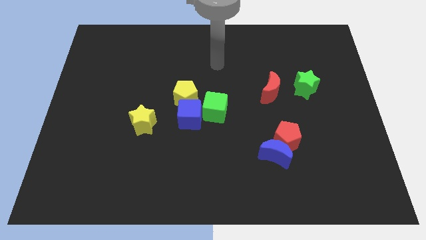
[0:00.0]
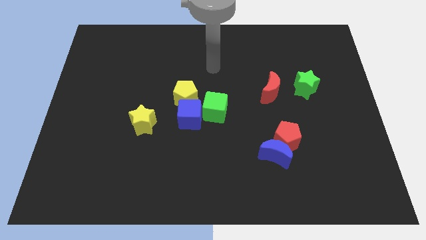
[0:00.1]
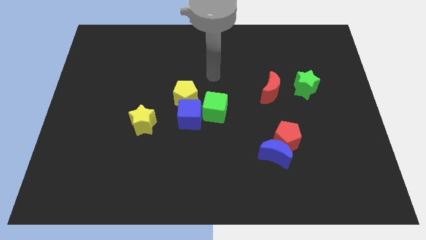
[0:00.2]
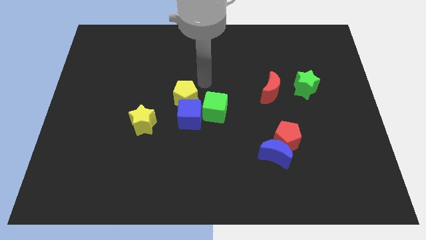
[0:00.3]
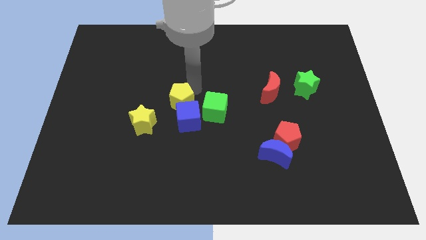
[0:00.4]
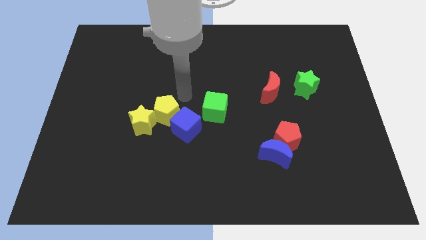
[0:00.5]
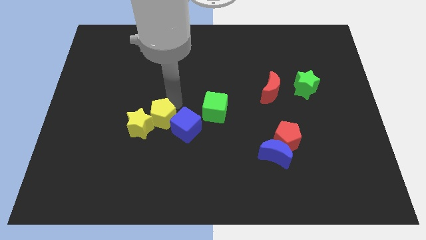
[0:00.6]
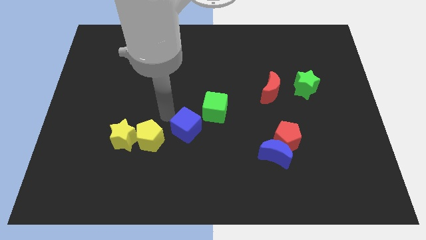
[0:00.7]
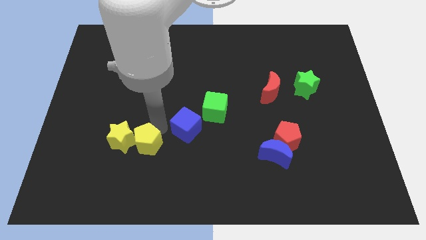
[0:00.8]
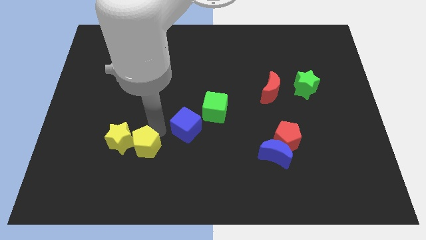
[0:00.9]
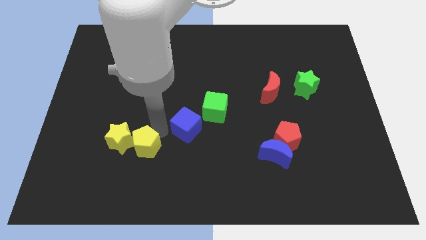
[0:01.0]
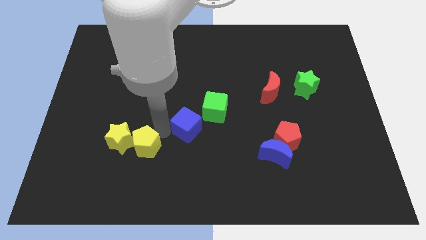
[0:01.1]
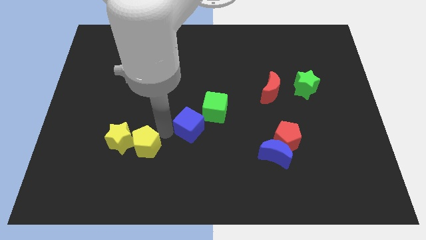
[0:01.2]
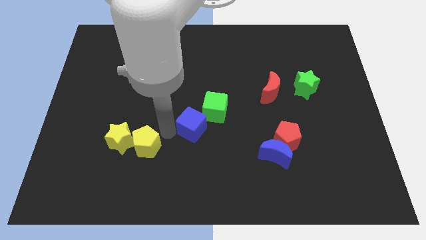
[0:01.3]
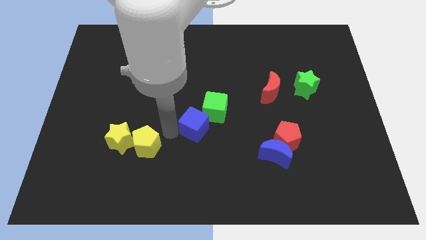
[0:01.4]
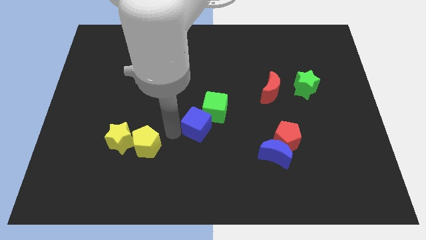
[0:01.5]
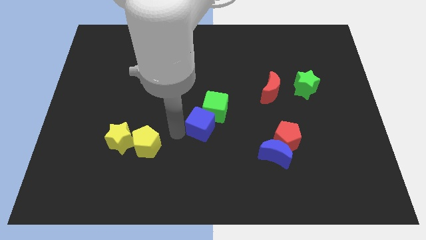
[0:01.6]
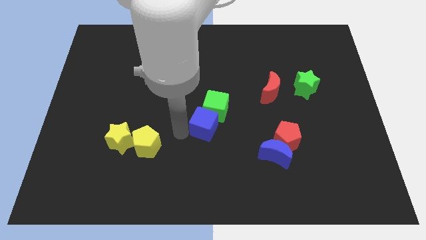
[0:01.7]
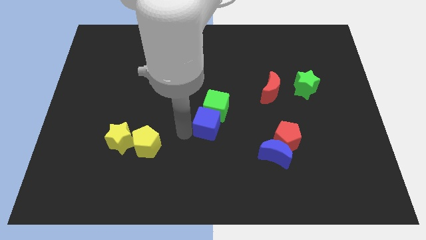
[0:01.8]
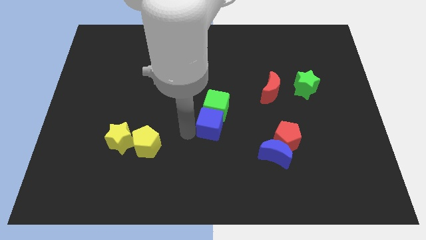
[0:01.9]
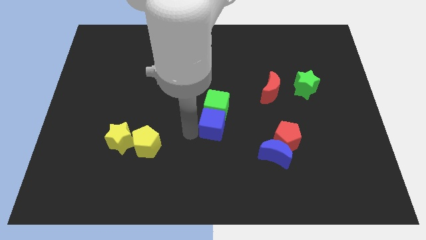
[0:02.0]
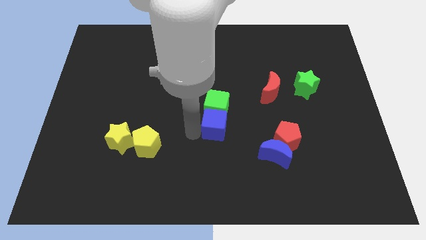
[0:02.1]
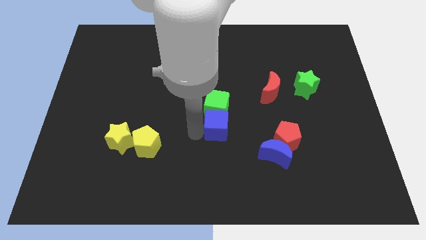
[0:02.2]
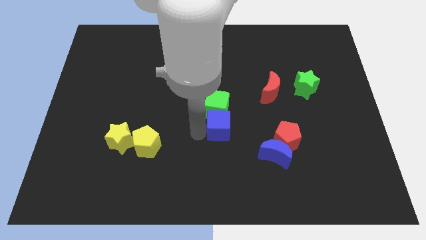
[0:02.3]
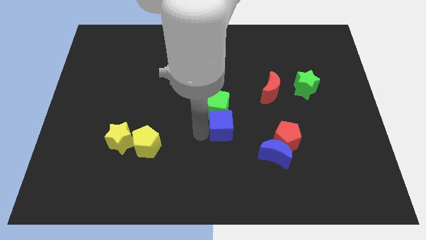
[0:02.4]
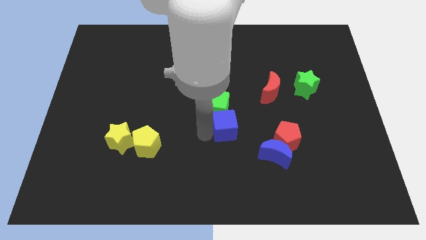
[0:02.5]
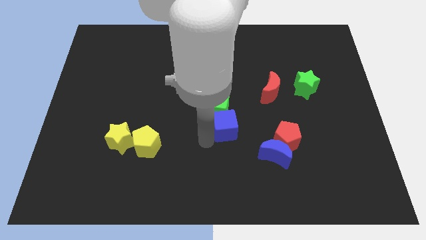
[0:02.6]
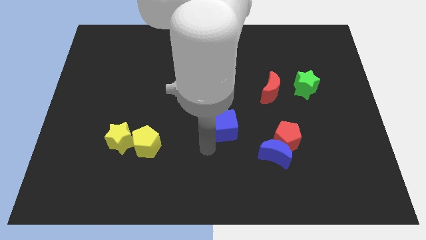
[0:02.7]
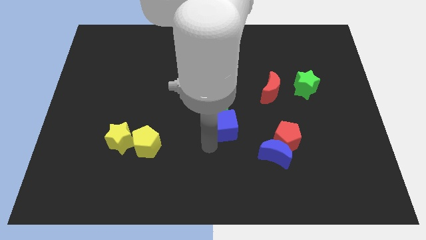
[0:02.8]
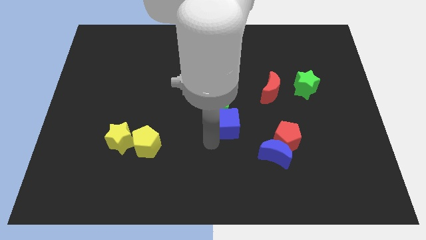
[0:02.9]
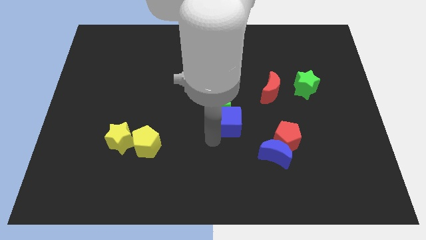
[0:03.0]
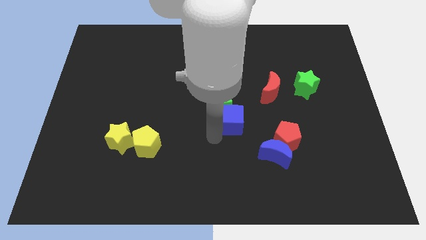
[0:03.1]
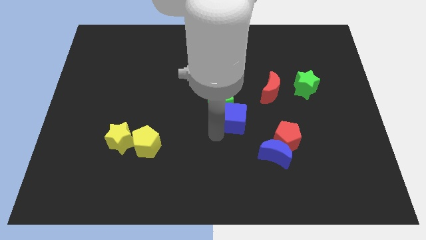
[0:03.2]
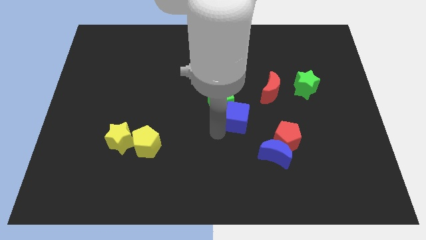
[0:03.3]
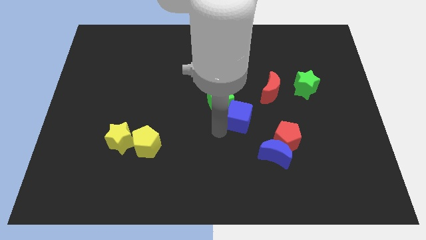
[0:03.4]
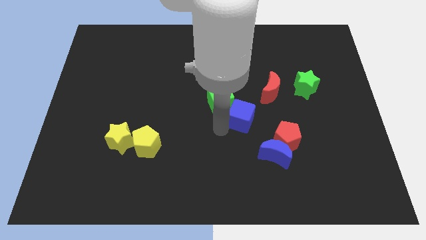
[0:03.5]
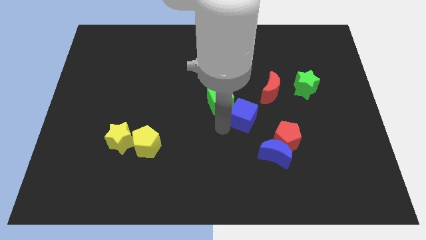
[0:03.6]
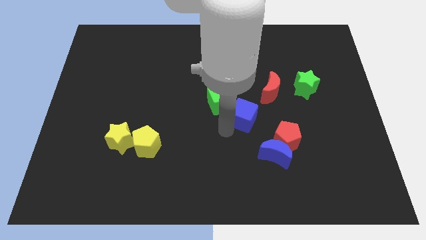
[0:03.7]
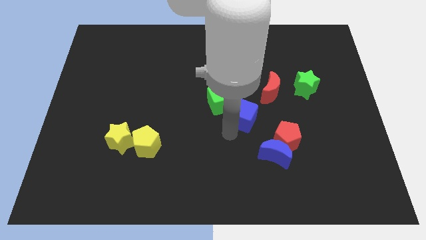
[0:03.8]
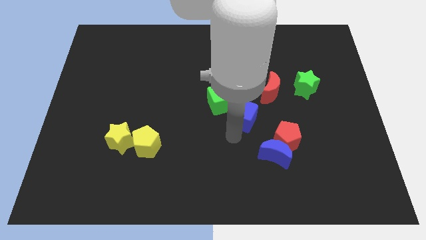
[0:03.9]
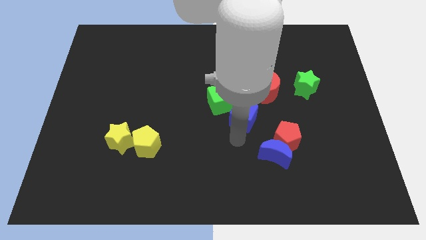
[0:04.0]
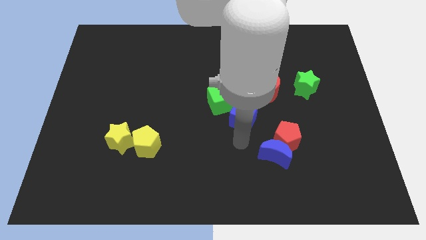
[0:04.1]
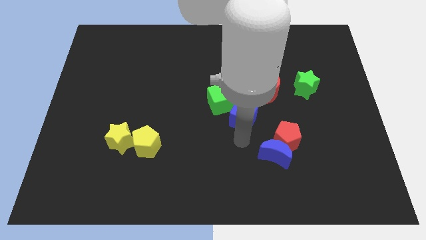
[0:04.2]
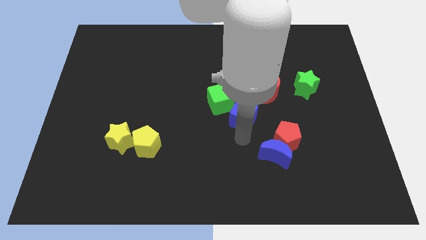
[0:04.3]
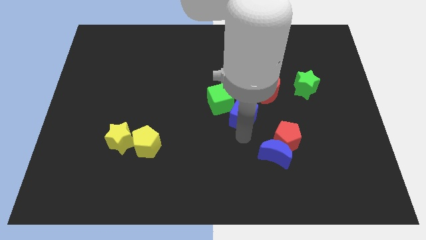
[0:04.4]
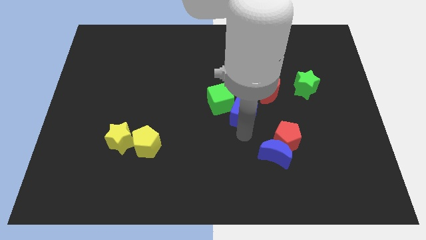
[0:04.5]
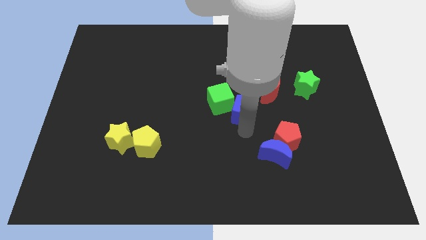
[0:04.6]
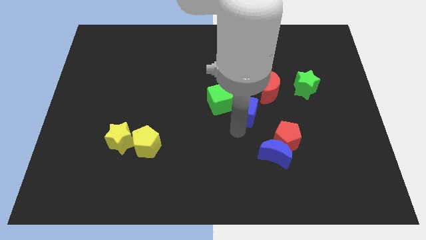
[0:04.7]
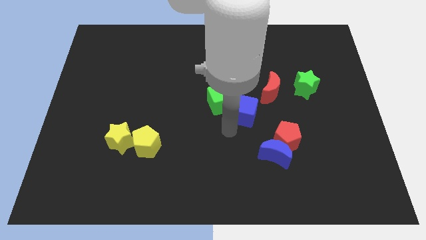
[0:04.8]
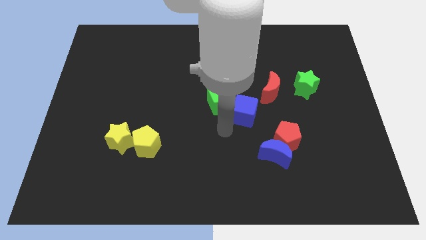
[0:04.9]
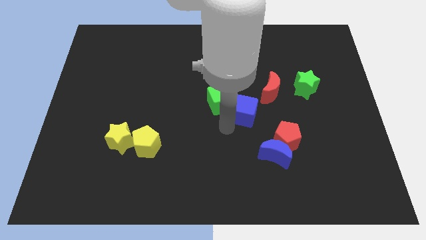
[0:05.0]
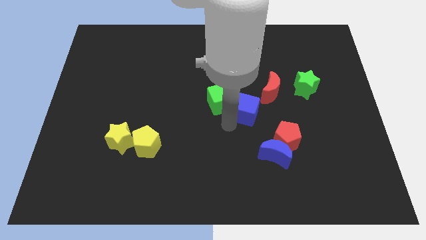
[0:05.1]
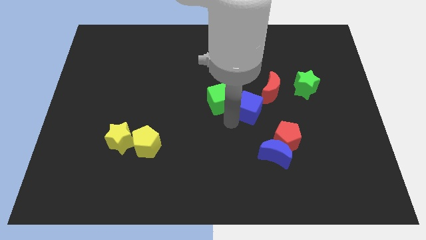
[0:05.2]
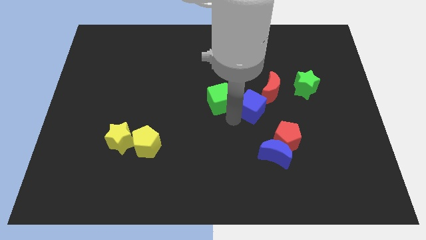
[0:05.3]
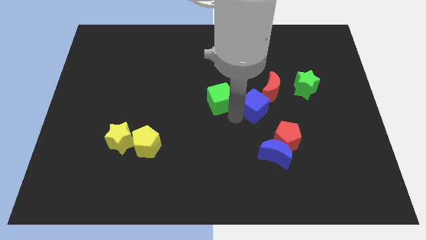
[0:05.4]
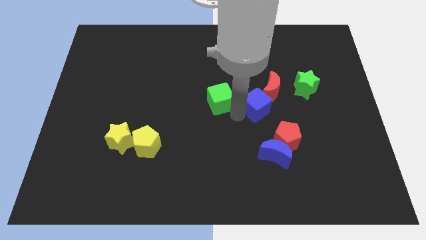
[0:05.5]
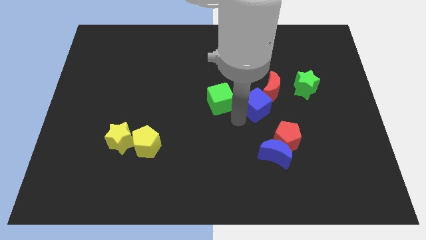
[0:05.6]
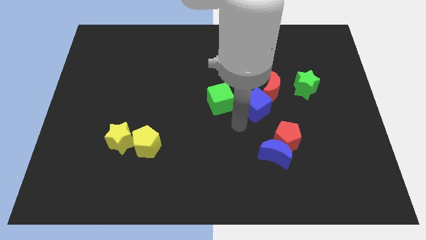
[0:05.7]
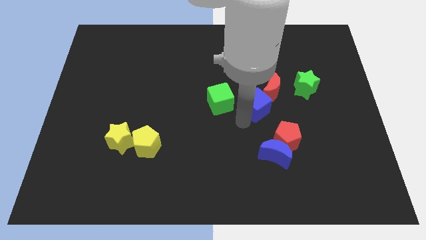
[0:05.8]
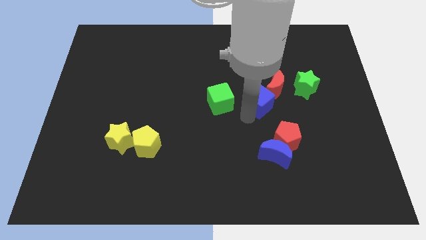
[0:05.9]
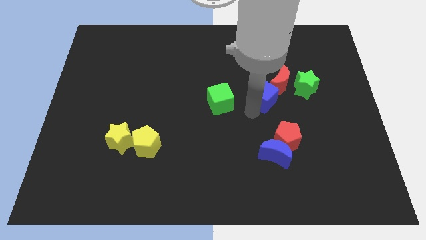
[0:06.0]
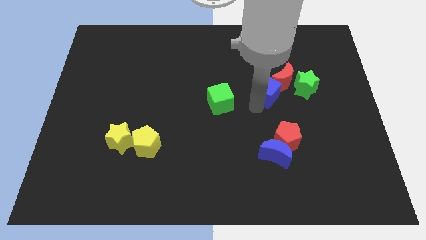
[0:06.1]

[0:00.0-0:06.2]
push the blue cube towards the red moon
